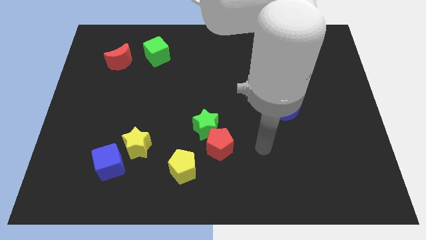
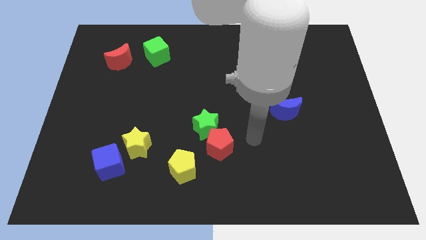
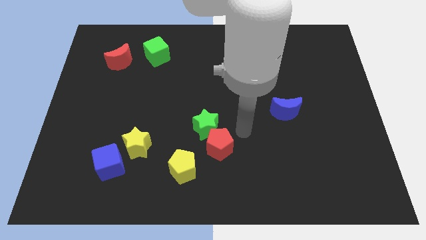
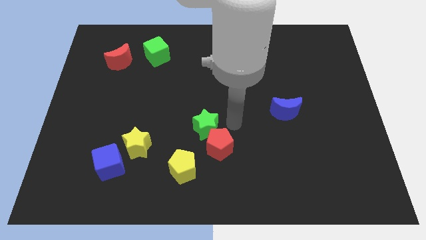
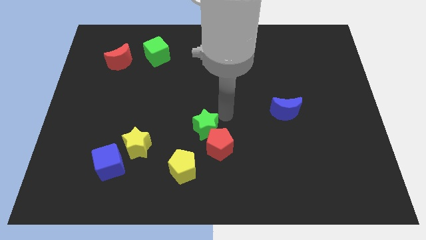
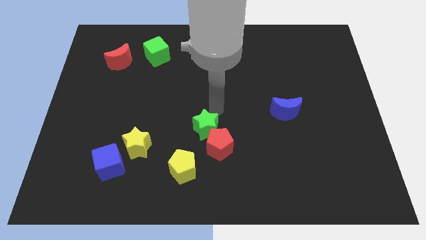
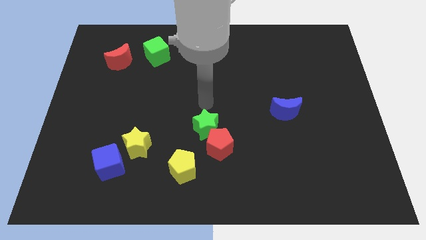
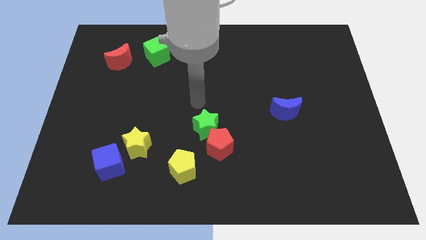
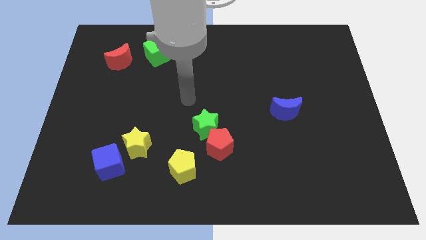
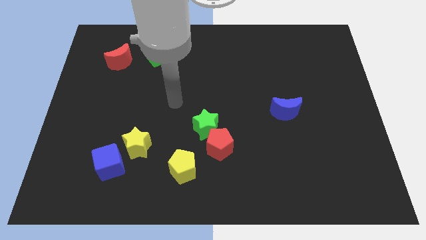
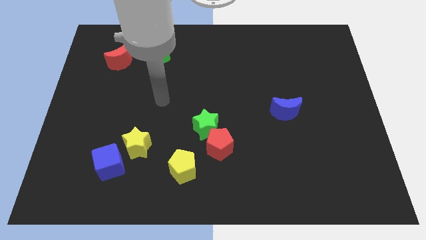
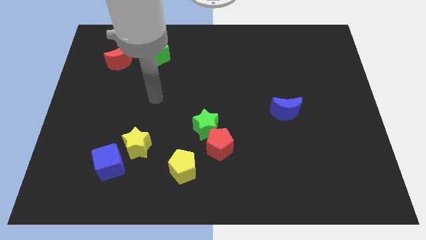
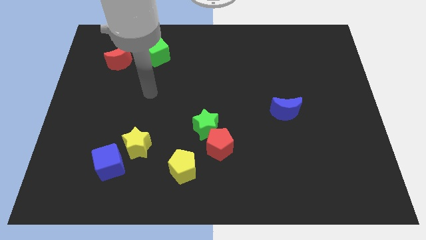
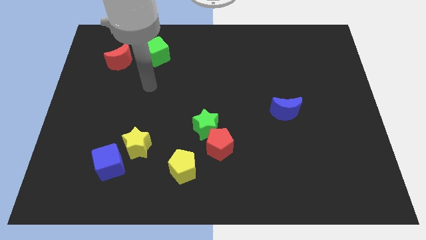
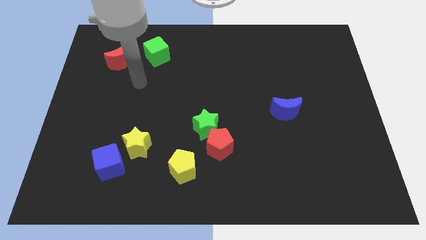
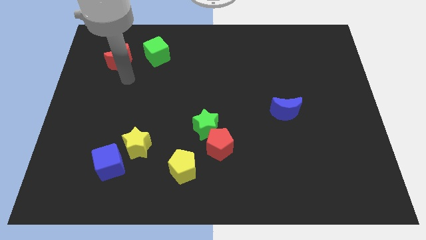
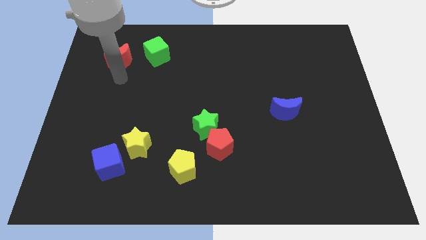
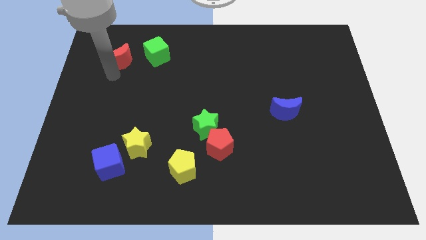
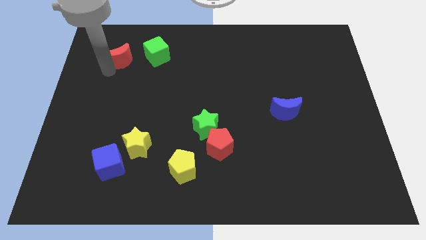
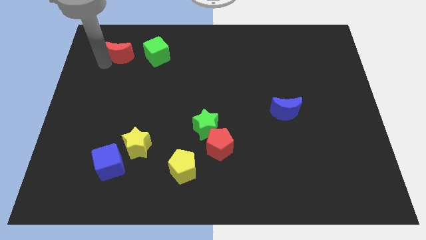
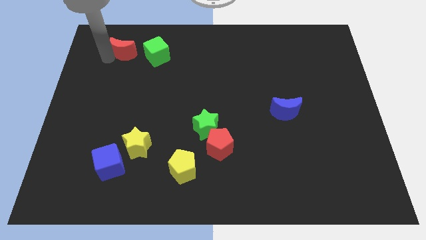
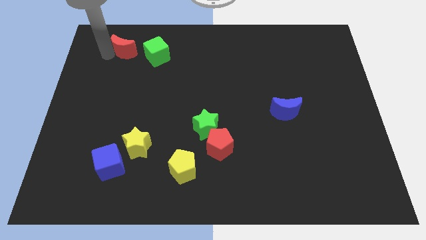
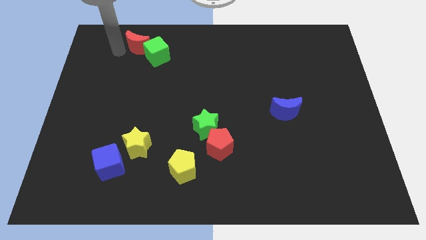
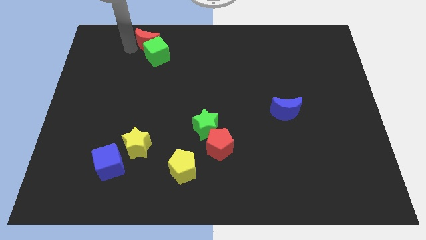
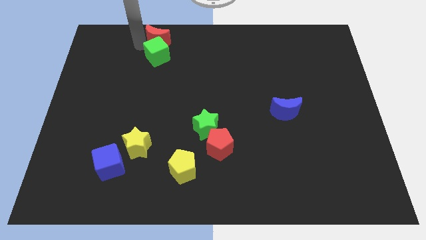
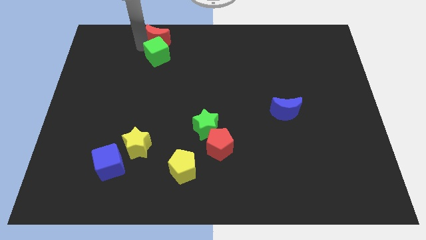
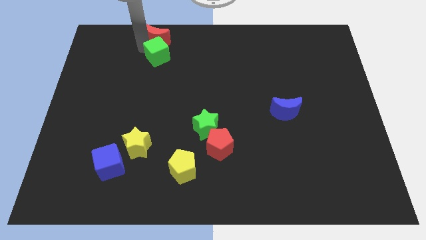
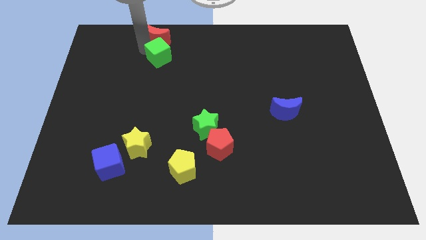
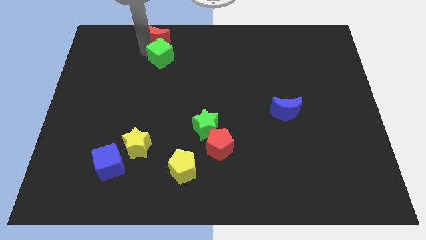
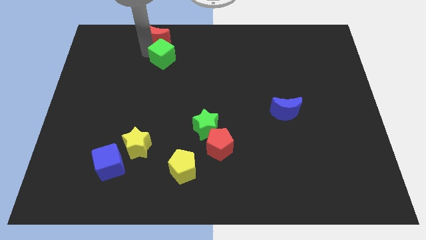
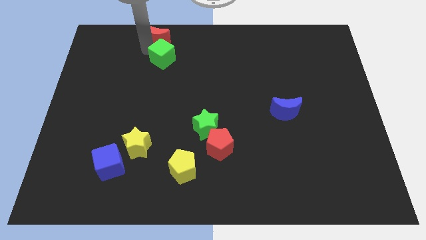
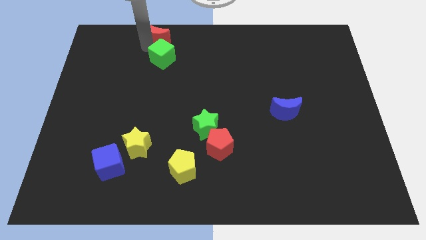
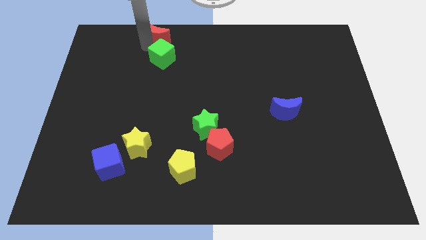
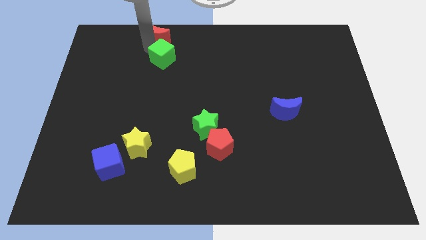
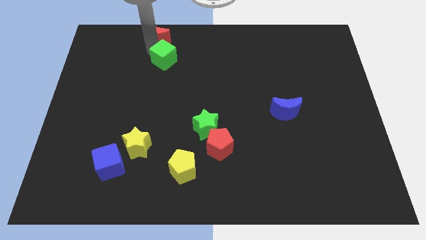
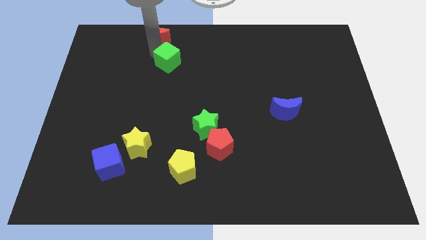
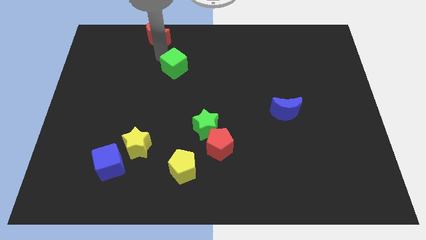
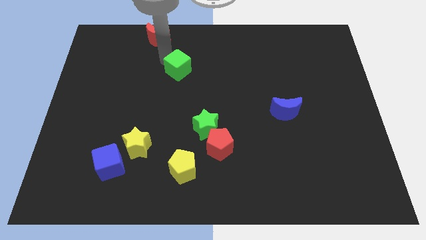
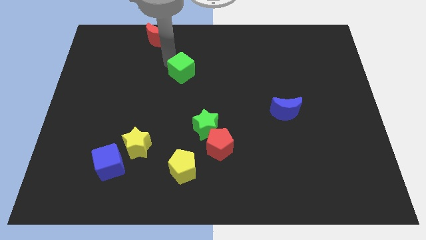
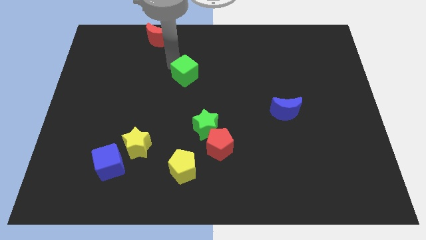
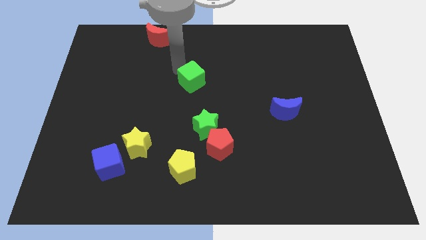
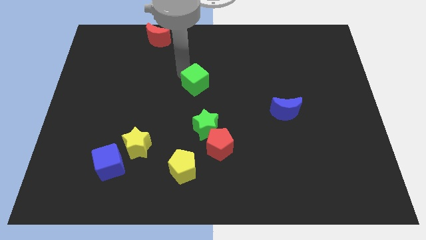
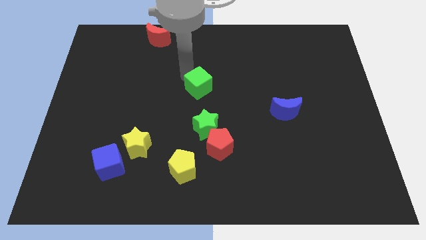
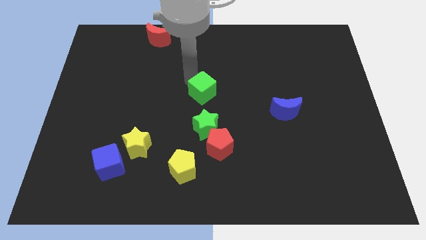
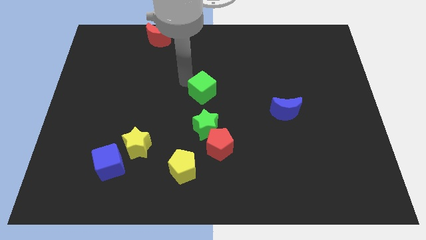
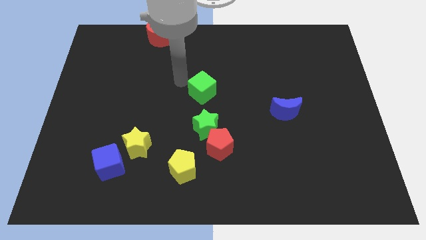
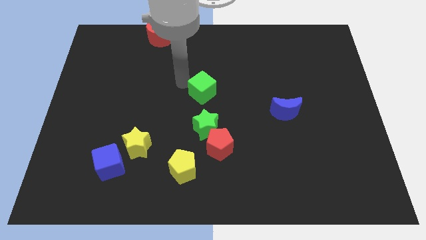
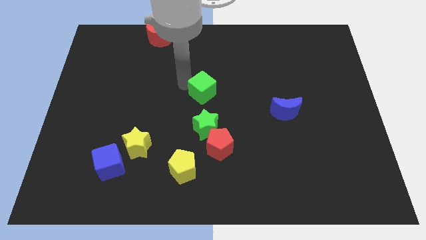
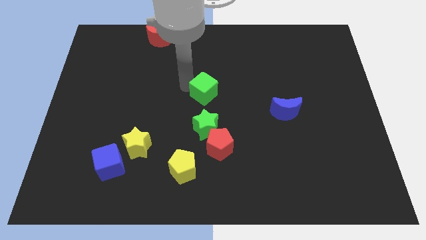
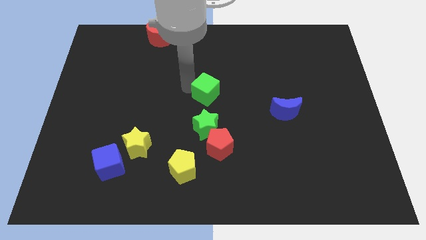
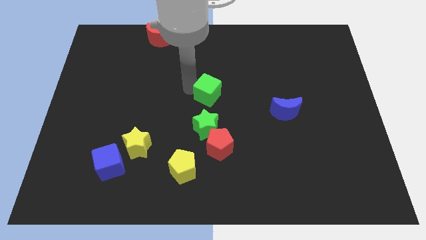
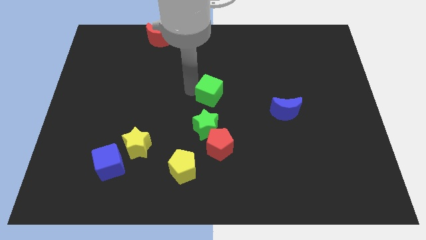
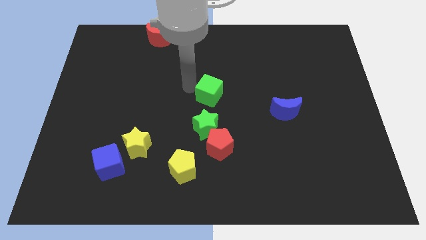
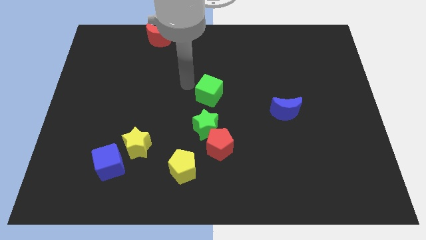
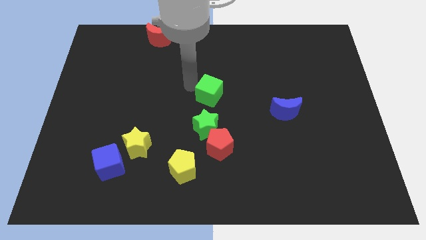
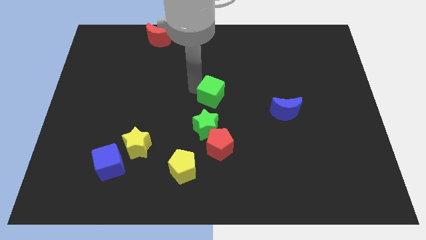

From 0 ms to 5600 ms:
push the green cube diagonally downwards and right

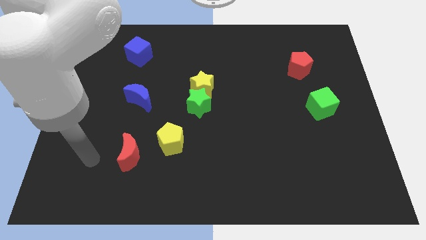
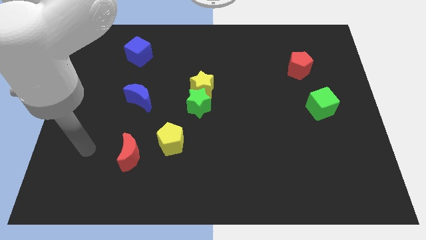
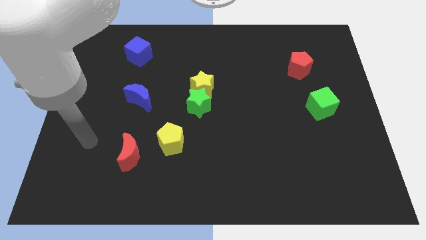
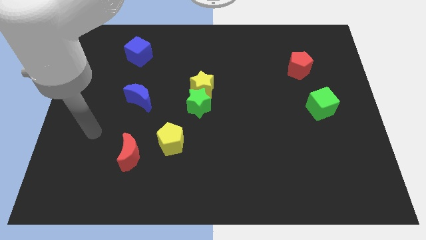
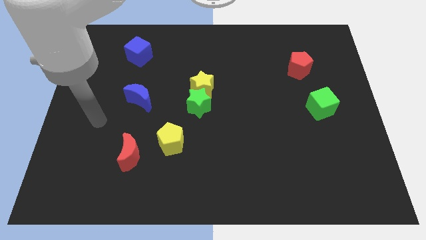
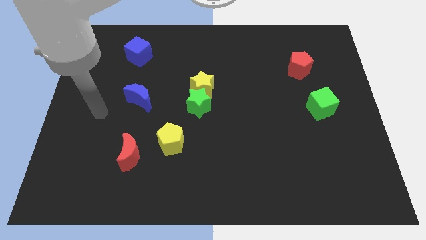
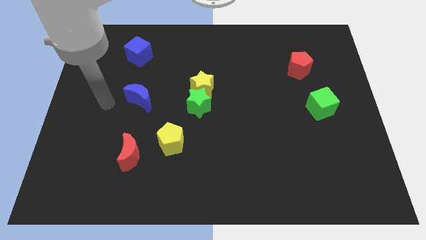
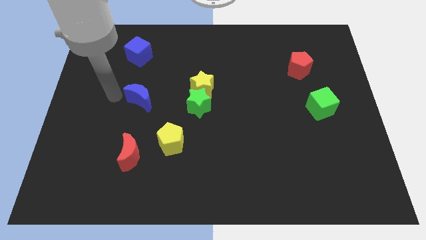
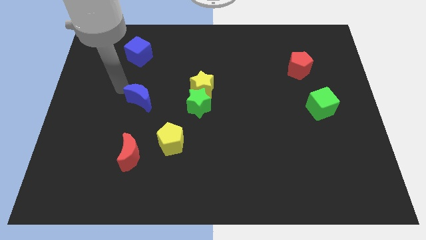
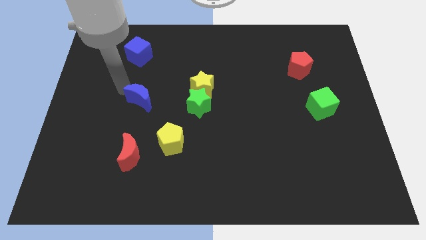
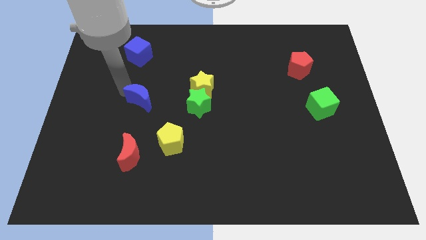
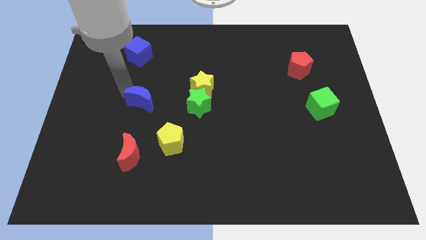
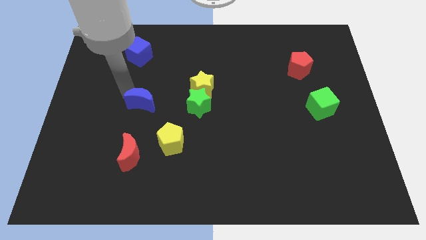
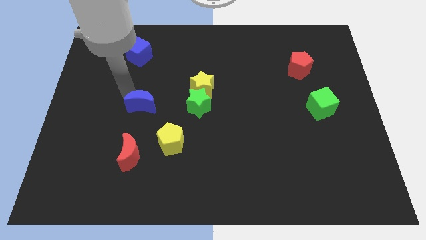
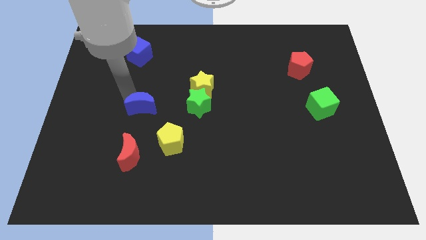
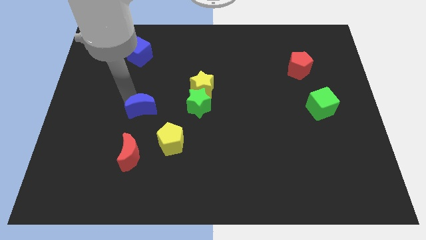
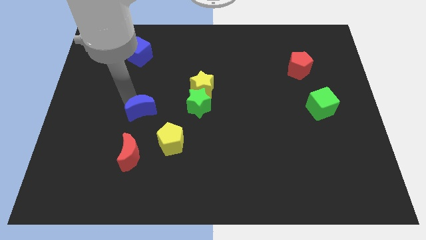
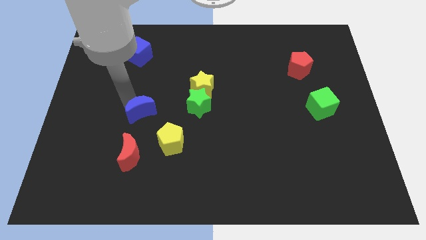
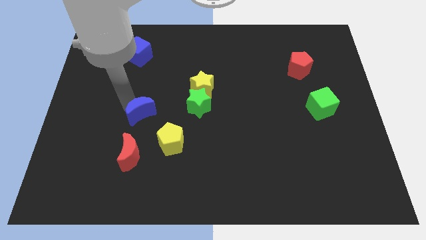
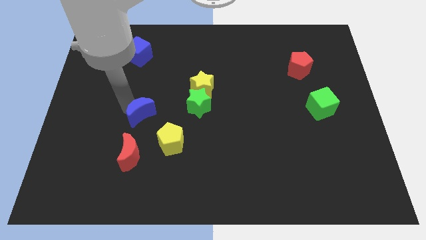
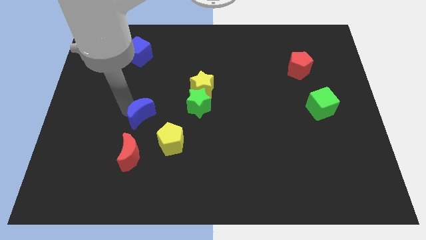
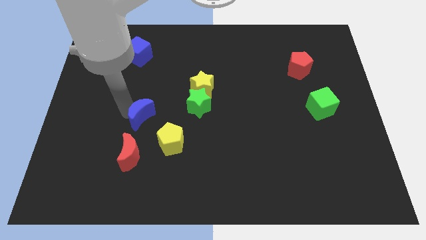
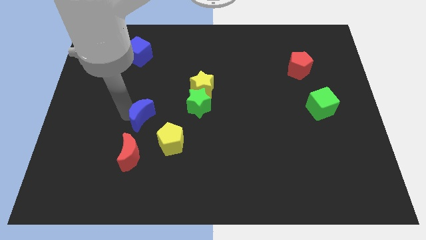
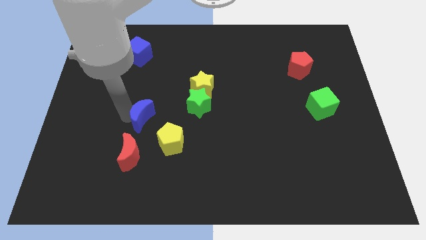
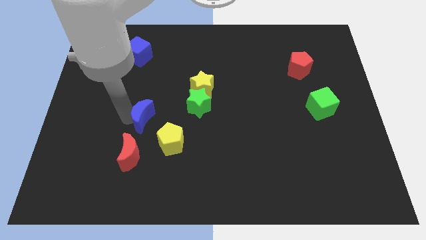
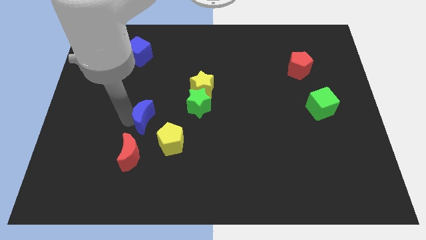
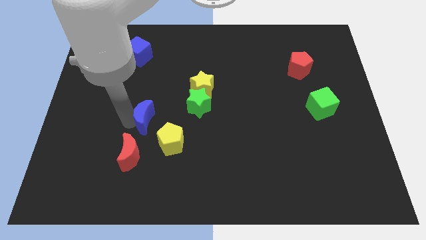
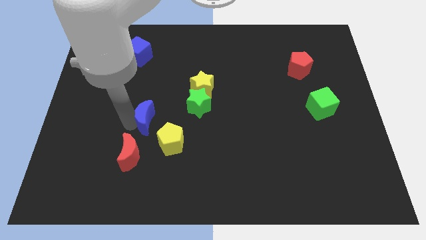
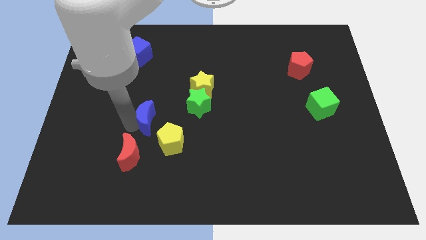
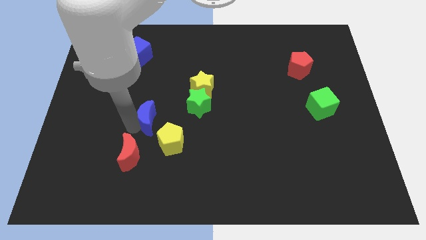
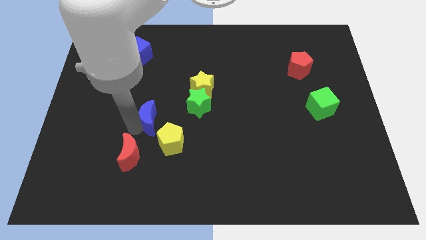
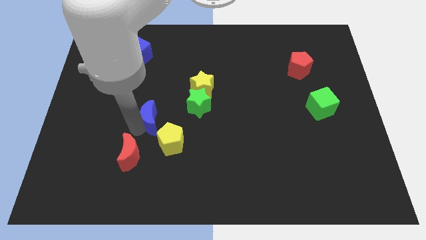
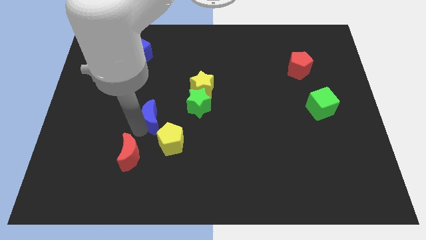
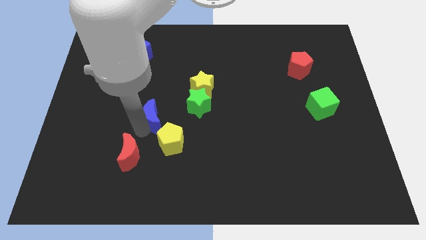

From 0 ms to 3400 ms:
push the blue moon down and to the right somewhat
